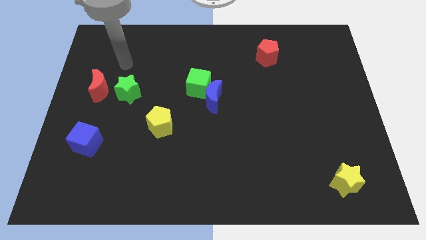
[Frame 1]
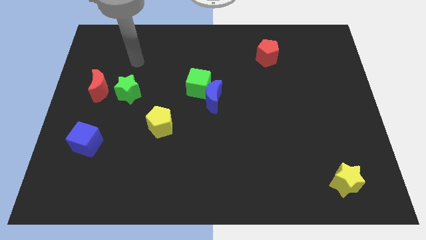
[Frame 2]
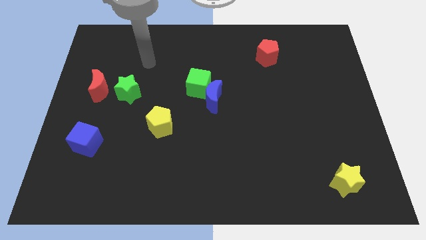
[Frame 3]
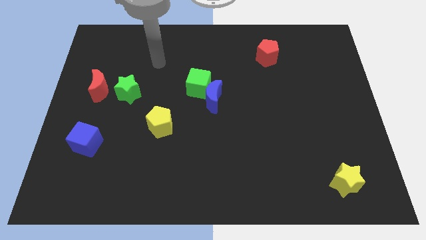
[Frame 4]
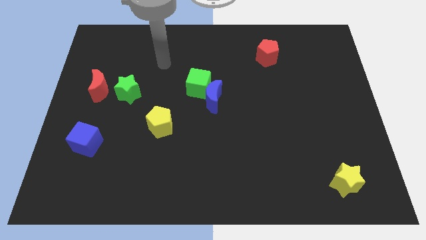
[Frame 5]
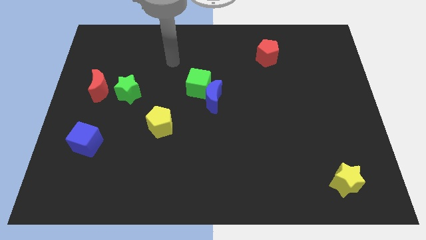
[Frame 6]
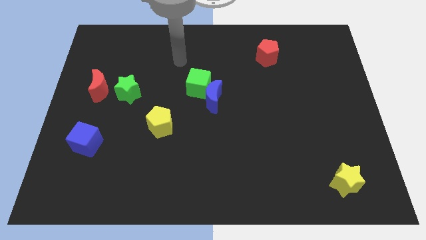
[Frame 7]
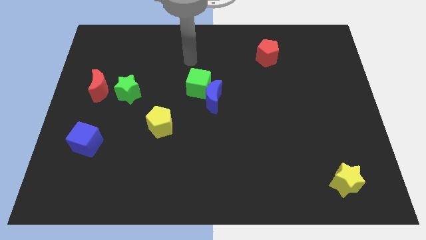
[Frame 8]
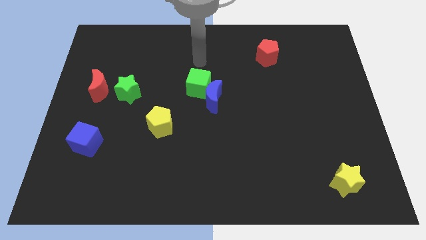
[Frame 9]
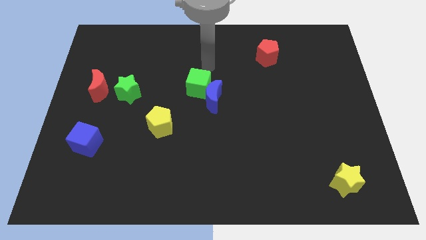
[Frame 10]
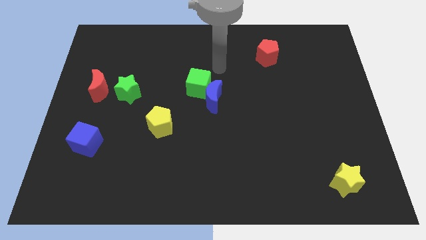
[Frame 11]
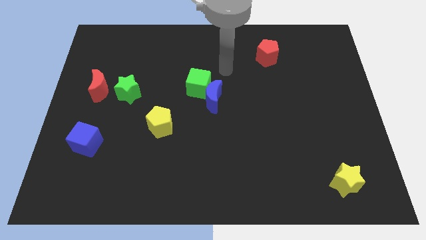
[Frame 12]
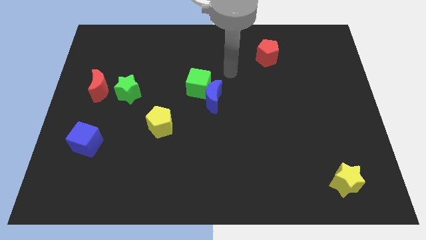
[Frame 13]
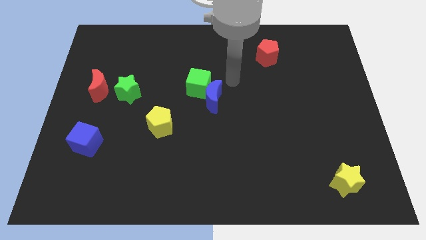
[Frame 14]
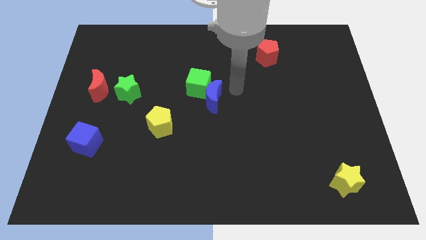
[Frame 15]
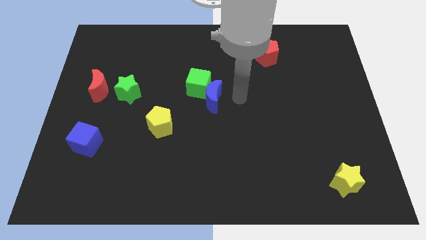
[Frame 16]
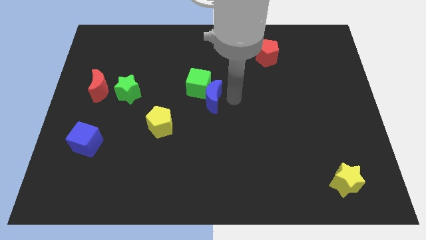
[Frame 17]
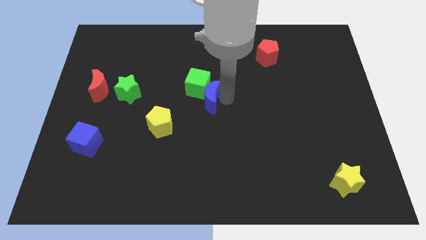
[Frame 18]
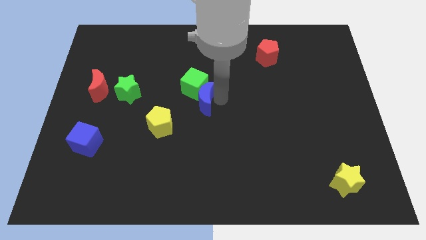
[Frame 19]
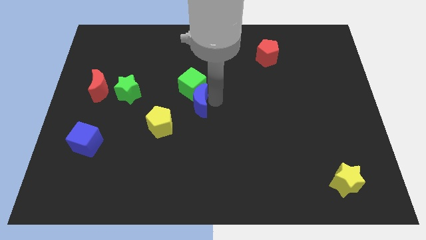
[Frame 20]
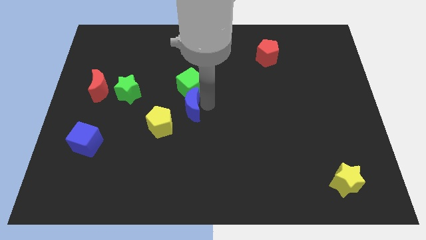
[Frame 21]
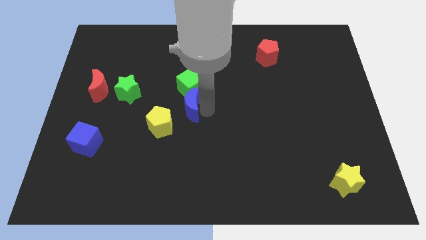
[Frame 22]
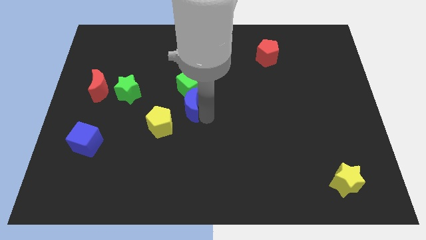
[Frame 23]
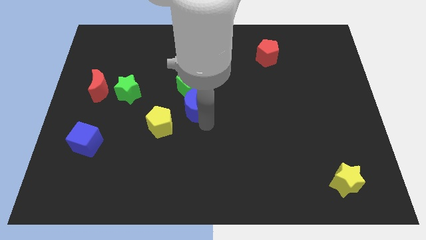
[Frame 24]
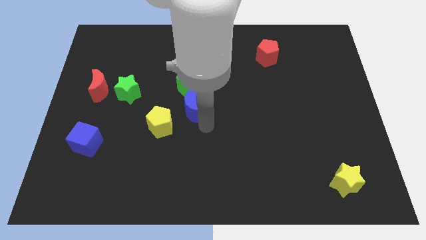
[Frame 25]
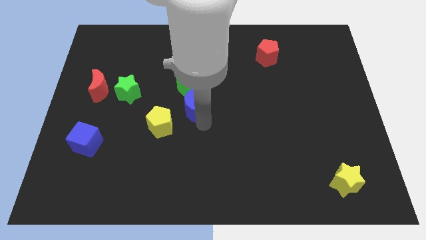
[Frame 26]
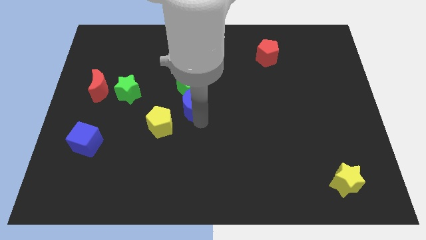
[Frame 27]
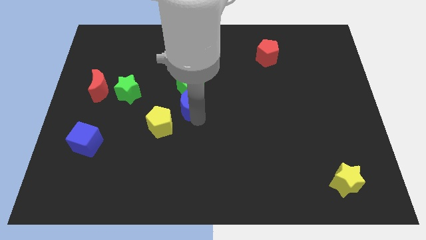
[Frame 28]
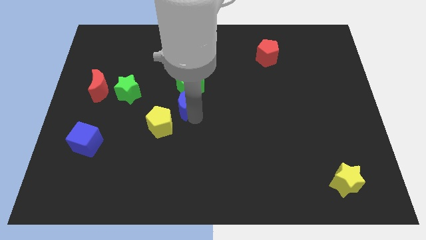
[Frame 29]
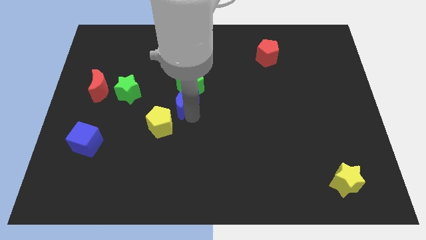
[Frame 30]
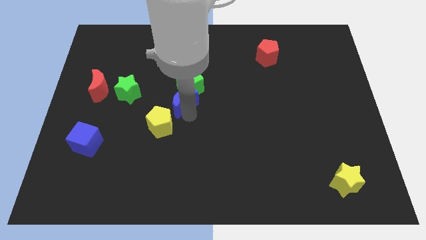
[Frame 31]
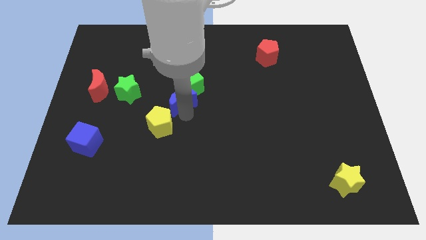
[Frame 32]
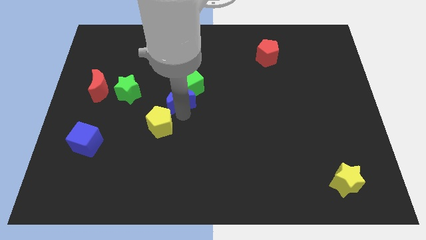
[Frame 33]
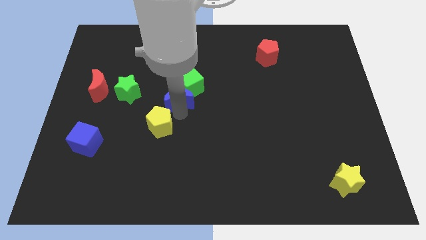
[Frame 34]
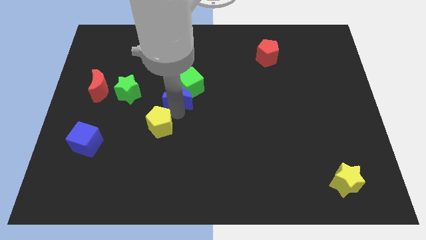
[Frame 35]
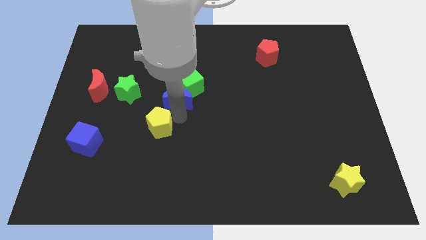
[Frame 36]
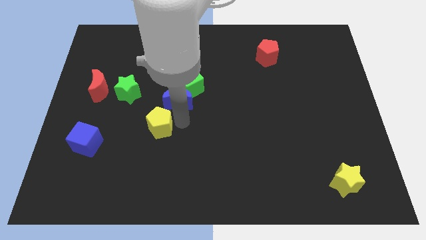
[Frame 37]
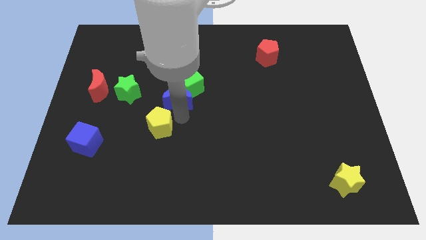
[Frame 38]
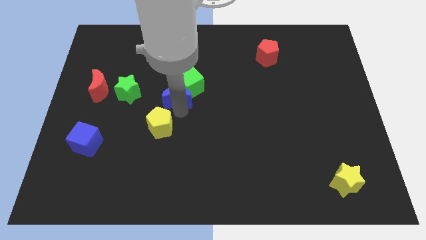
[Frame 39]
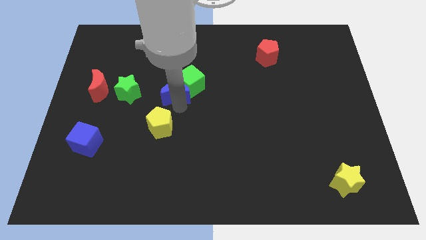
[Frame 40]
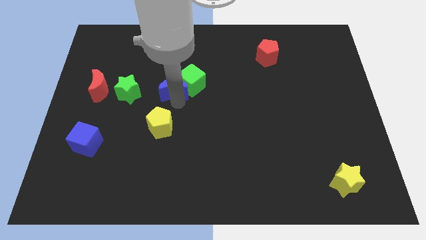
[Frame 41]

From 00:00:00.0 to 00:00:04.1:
move the blue moon upwards and to the left a little

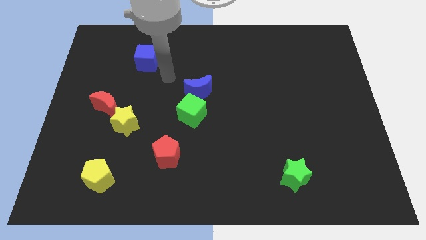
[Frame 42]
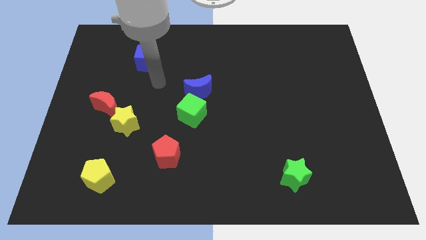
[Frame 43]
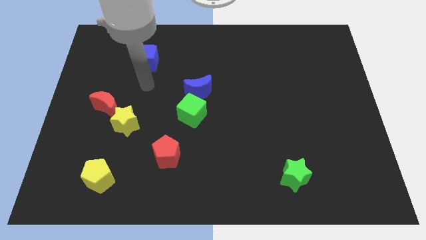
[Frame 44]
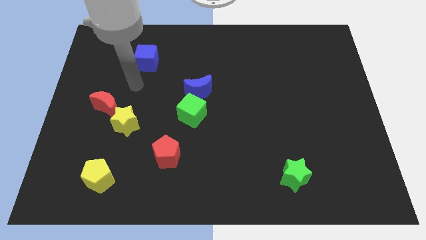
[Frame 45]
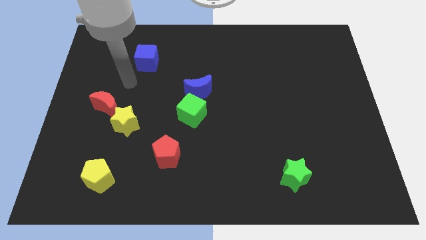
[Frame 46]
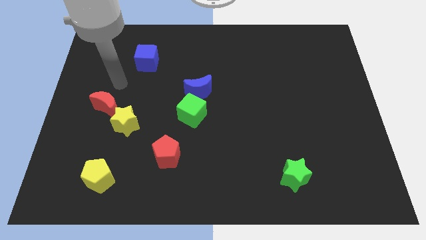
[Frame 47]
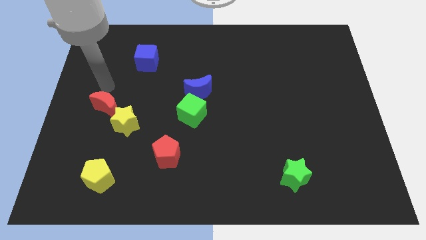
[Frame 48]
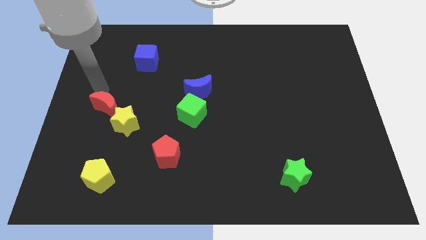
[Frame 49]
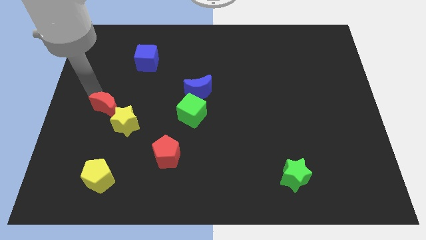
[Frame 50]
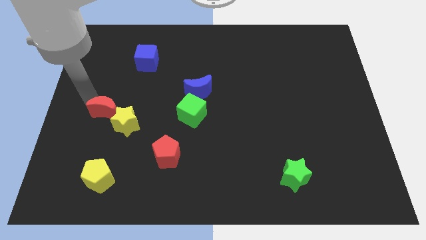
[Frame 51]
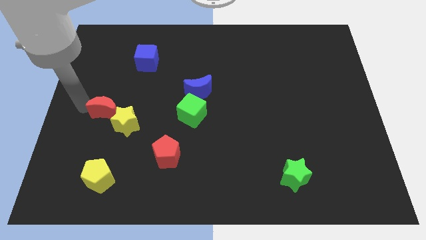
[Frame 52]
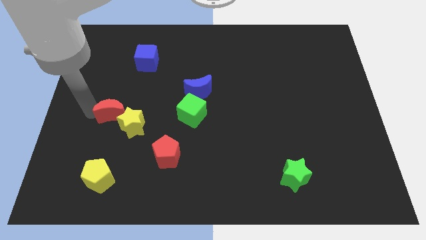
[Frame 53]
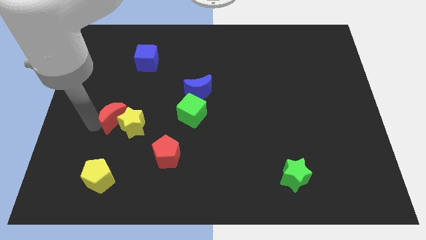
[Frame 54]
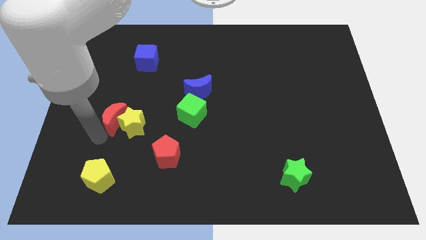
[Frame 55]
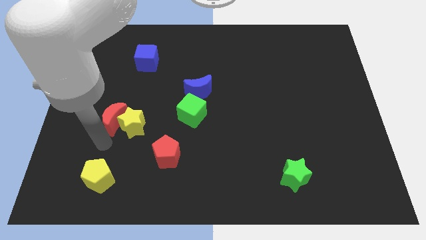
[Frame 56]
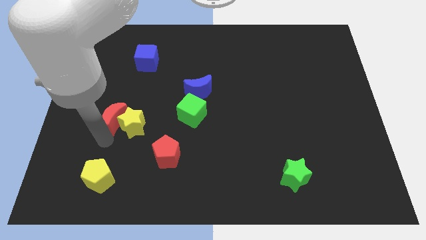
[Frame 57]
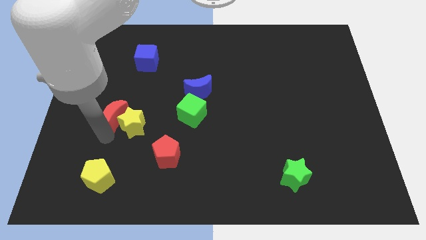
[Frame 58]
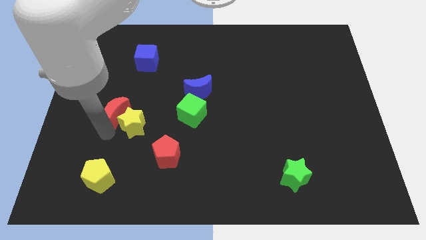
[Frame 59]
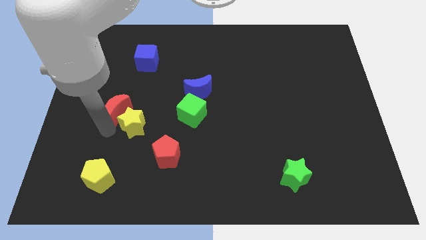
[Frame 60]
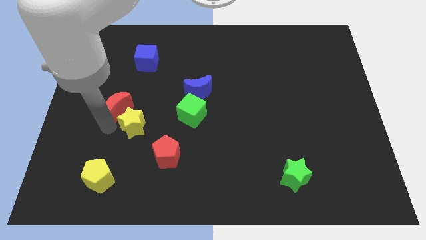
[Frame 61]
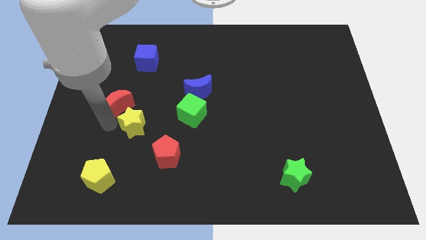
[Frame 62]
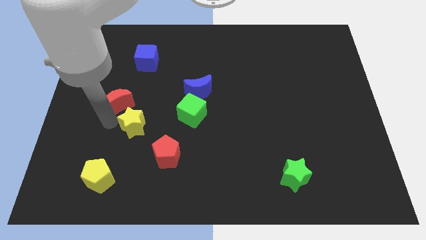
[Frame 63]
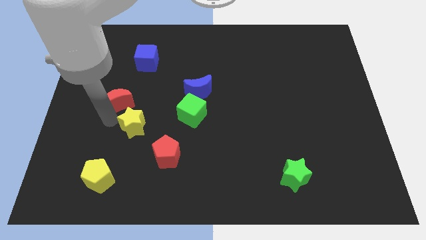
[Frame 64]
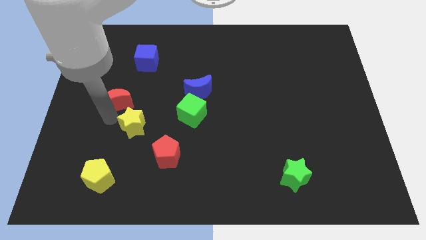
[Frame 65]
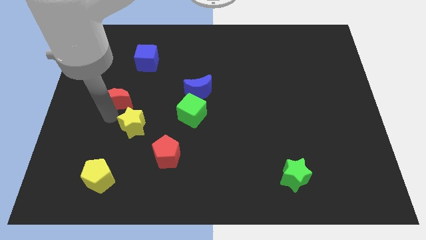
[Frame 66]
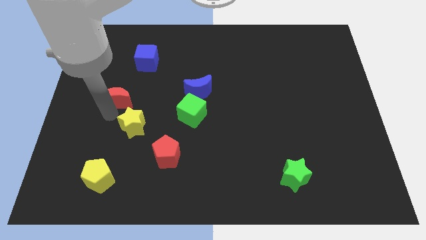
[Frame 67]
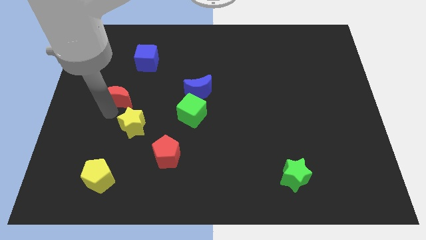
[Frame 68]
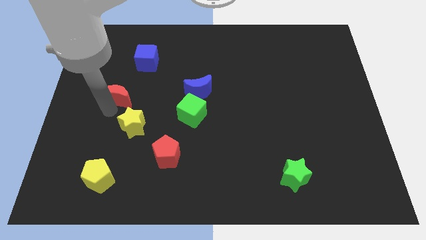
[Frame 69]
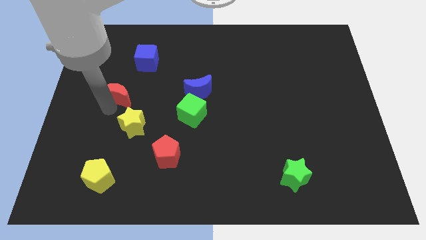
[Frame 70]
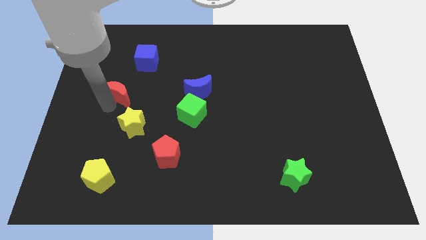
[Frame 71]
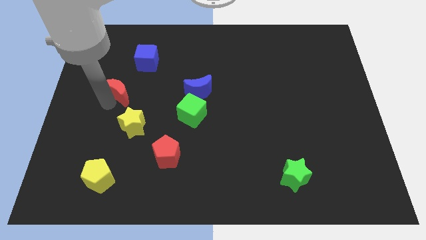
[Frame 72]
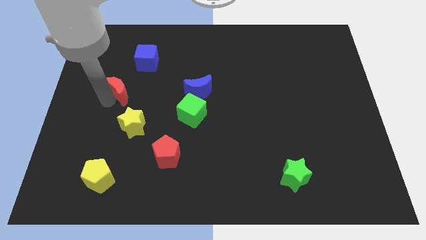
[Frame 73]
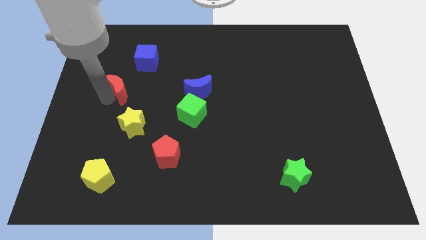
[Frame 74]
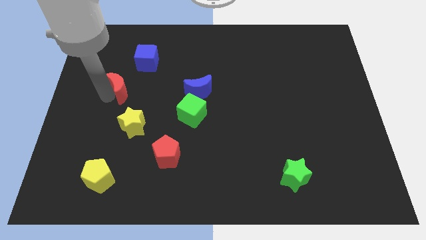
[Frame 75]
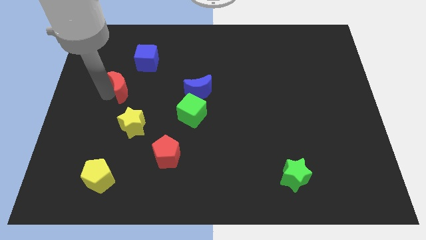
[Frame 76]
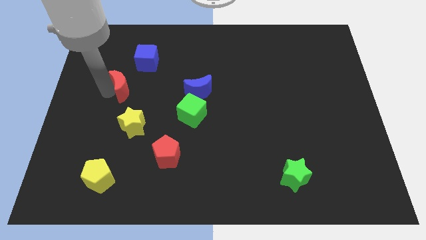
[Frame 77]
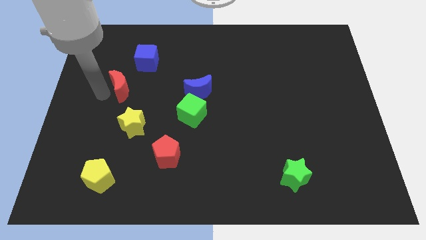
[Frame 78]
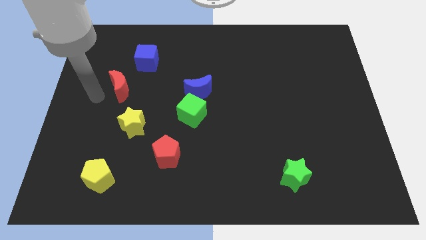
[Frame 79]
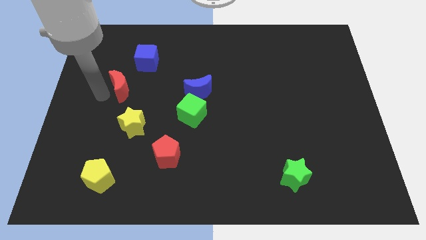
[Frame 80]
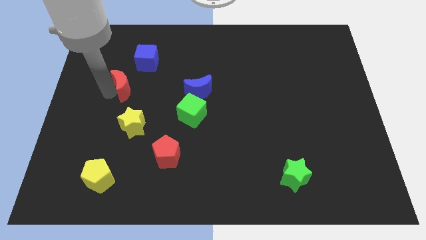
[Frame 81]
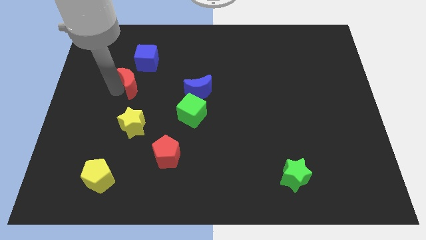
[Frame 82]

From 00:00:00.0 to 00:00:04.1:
push the red moon a little up and to the right diagonally
